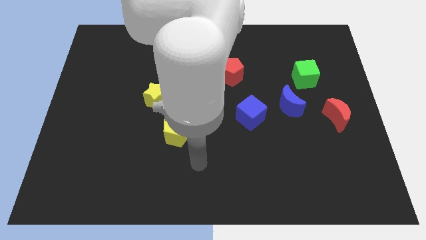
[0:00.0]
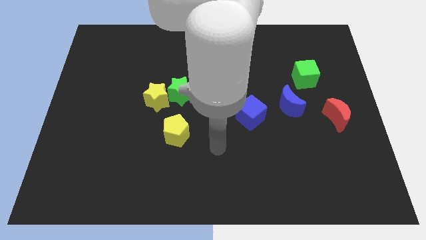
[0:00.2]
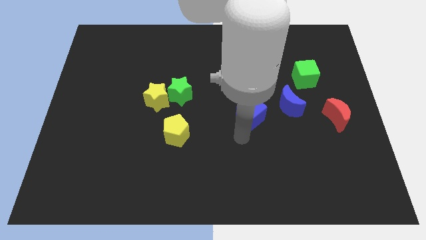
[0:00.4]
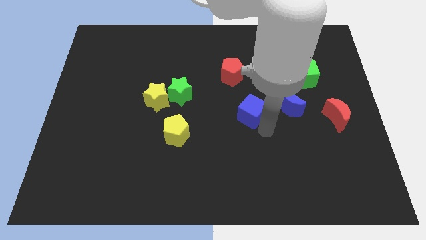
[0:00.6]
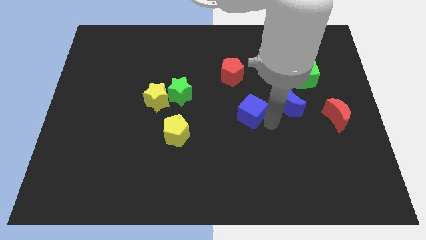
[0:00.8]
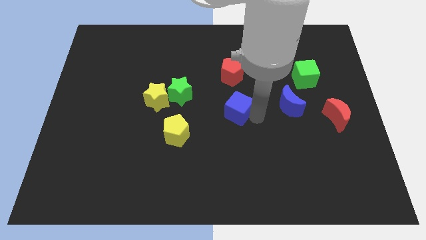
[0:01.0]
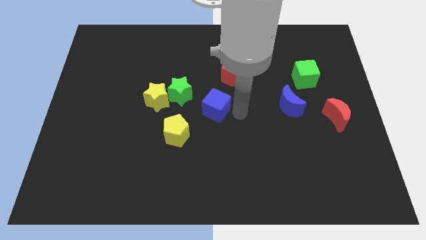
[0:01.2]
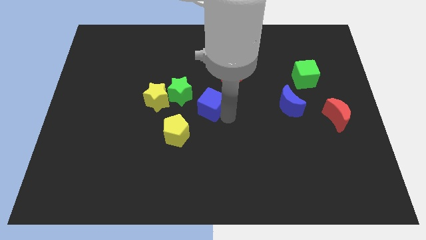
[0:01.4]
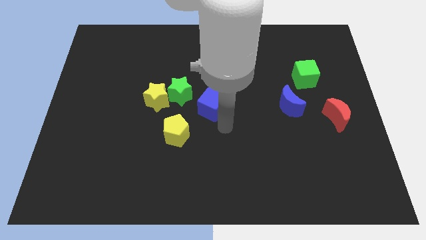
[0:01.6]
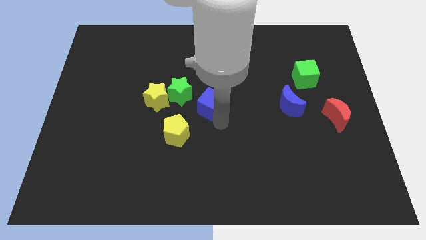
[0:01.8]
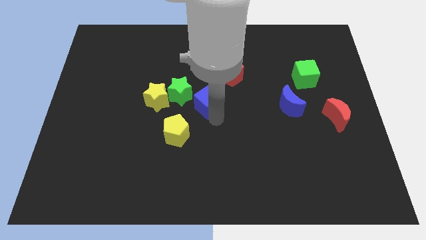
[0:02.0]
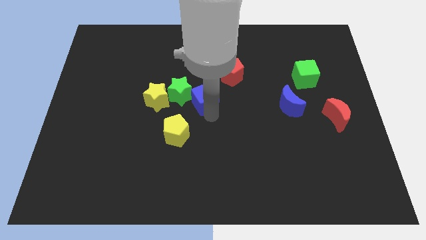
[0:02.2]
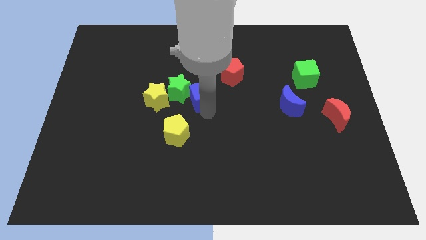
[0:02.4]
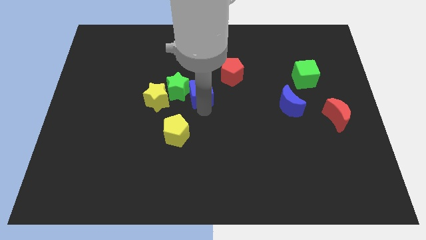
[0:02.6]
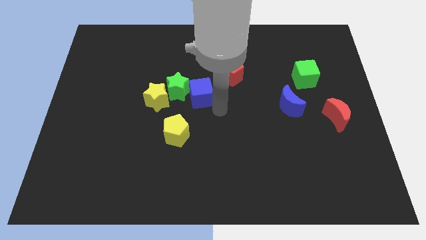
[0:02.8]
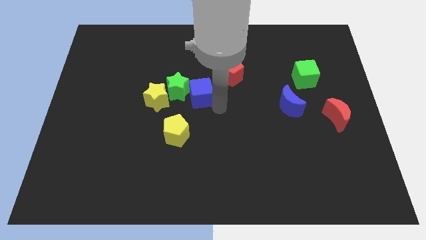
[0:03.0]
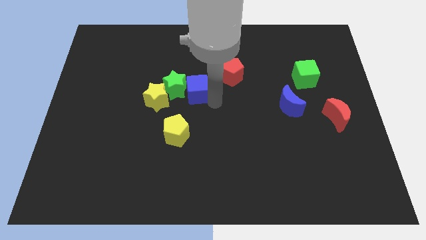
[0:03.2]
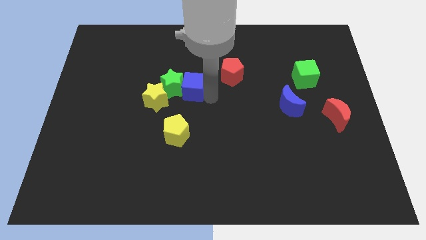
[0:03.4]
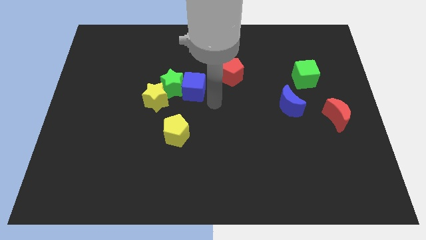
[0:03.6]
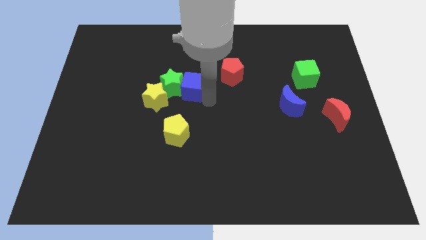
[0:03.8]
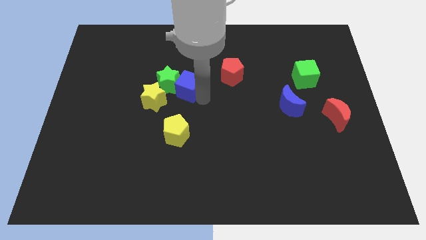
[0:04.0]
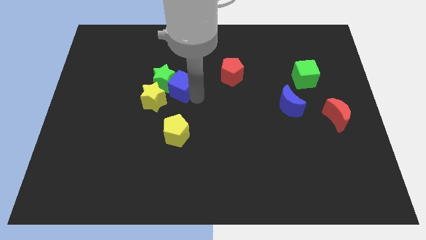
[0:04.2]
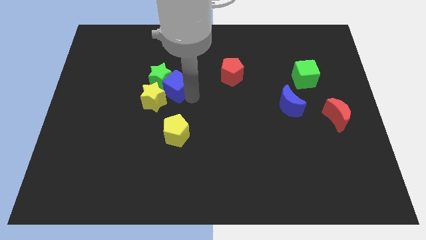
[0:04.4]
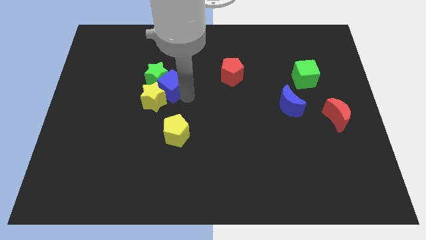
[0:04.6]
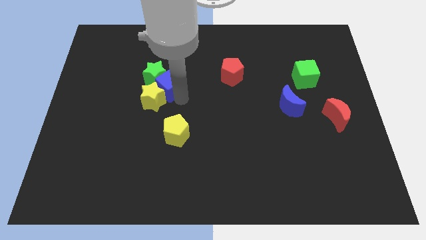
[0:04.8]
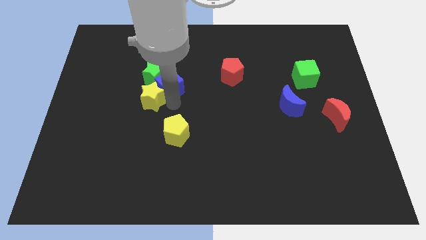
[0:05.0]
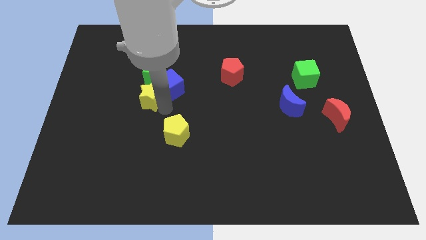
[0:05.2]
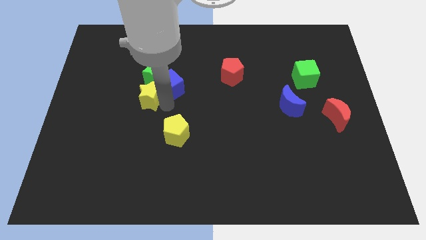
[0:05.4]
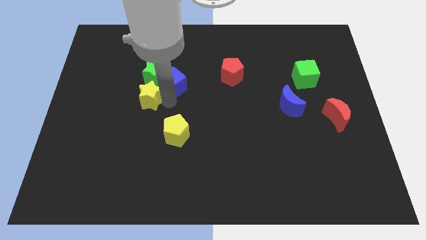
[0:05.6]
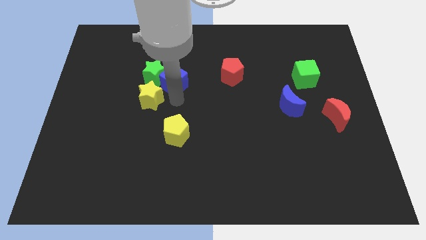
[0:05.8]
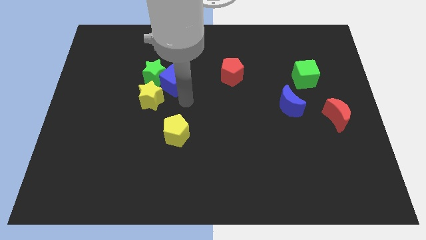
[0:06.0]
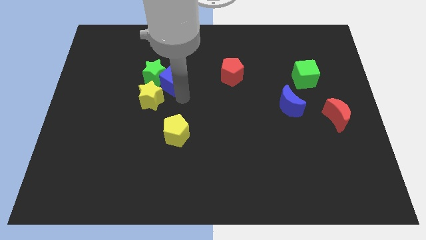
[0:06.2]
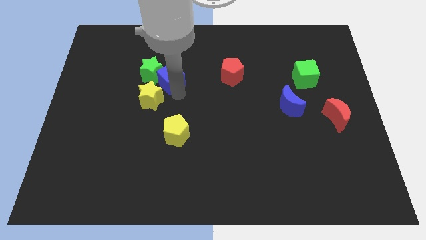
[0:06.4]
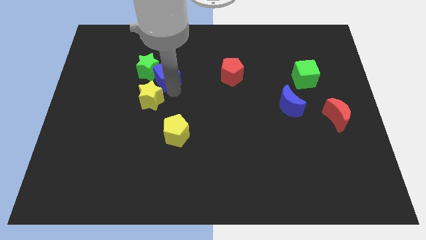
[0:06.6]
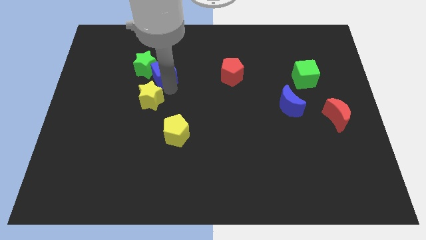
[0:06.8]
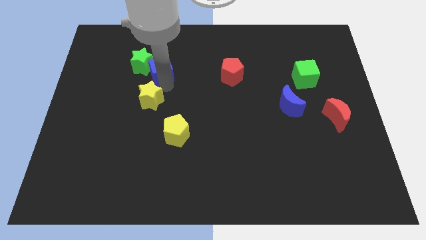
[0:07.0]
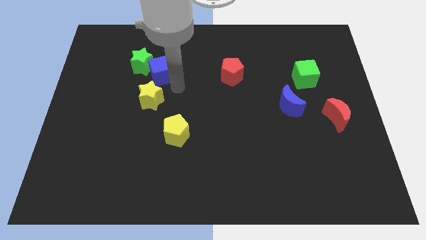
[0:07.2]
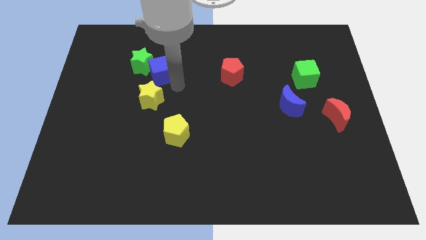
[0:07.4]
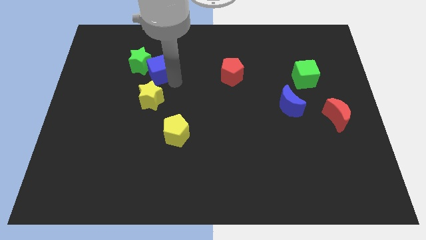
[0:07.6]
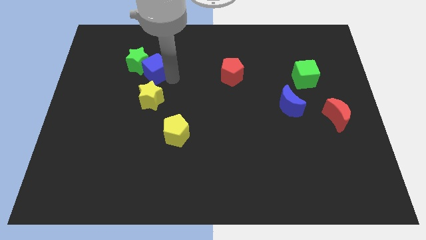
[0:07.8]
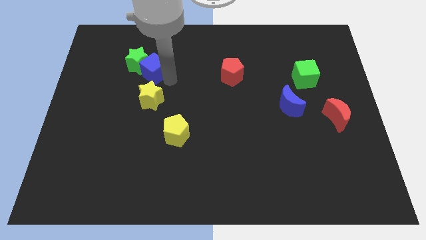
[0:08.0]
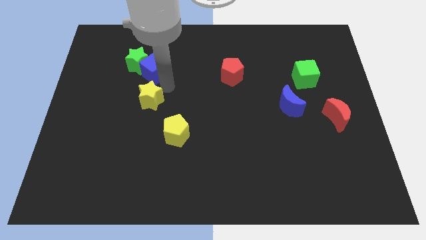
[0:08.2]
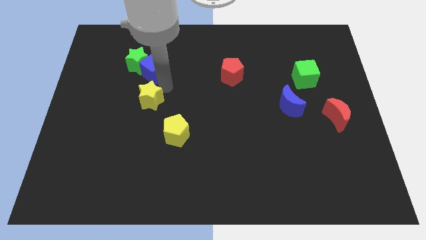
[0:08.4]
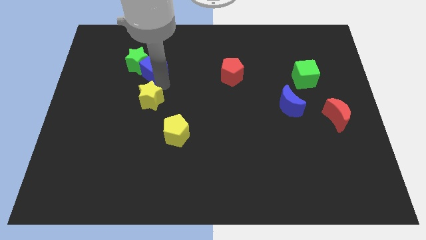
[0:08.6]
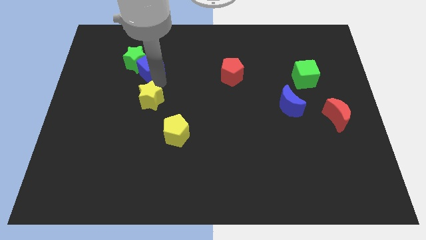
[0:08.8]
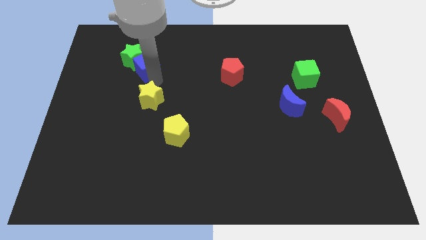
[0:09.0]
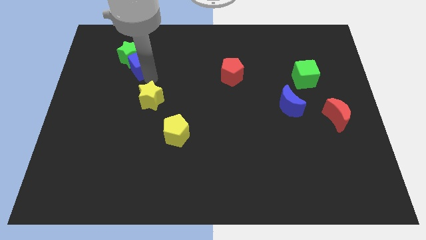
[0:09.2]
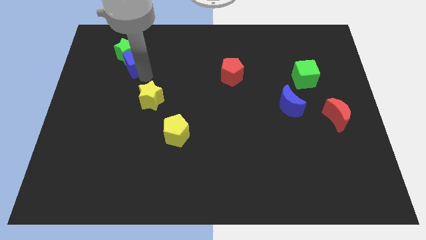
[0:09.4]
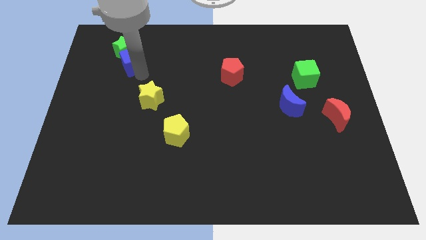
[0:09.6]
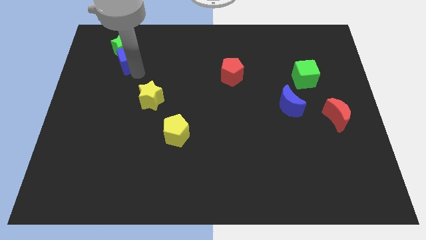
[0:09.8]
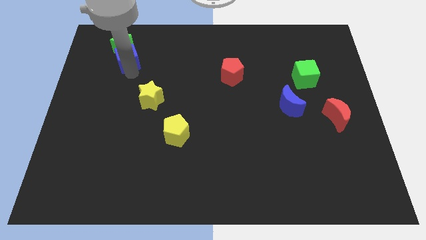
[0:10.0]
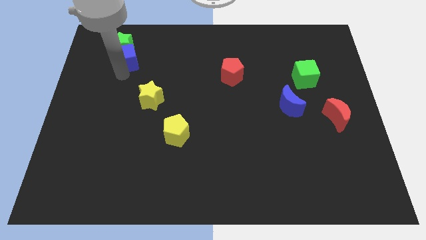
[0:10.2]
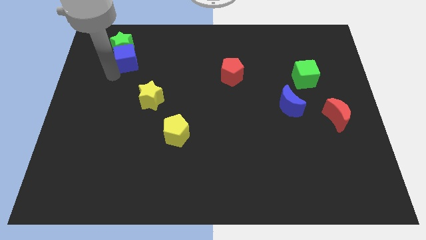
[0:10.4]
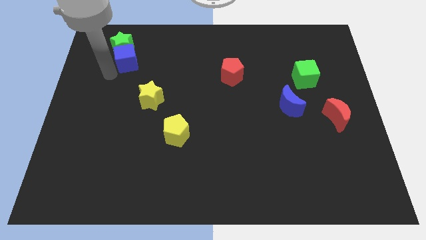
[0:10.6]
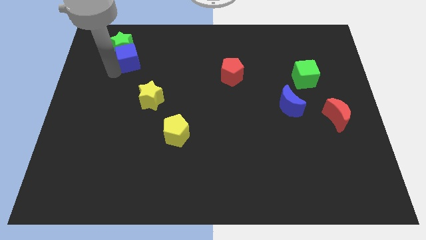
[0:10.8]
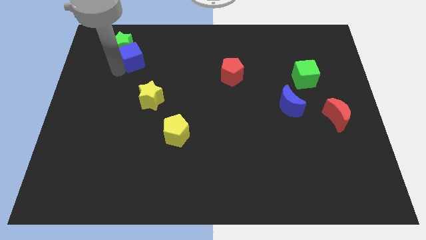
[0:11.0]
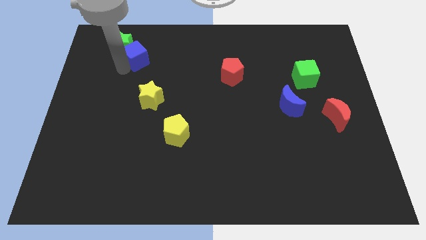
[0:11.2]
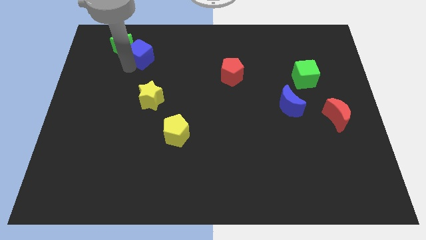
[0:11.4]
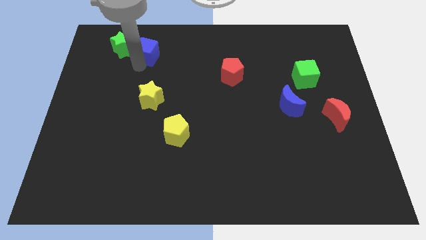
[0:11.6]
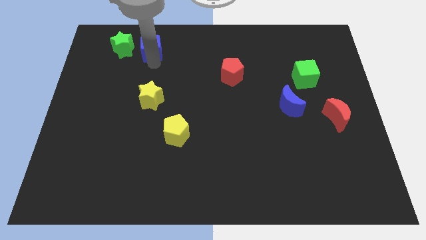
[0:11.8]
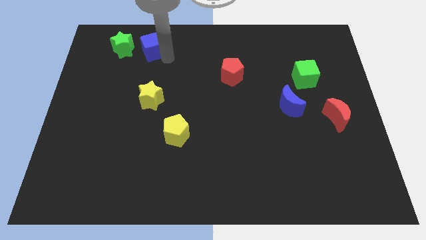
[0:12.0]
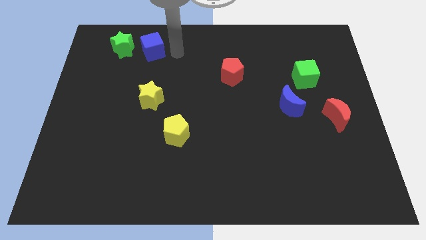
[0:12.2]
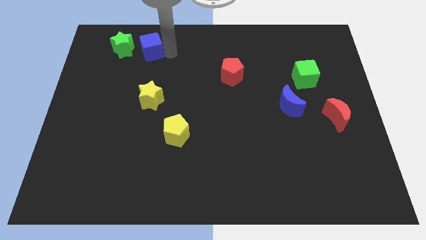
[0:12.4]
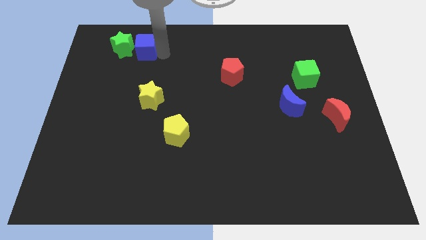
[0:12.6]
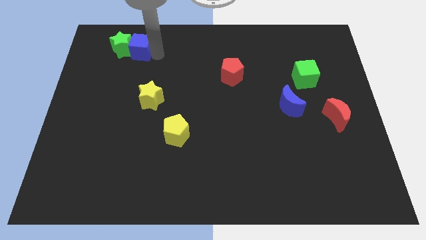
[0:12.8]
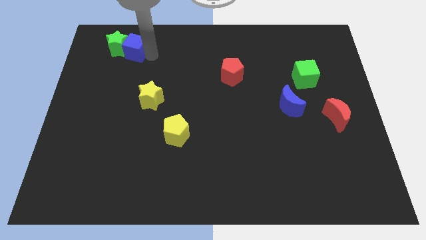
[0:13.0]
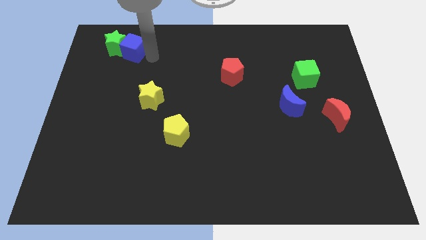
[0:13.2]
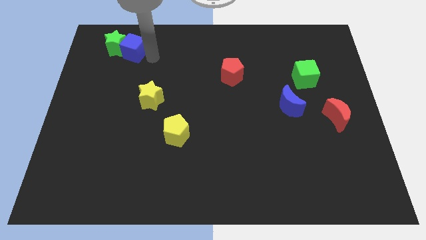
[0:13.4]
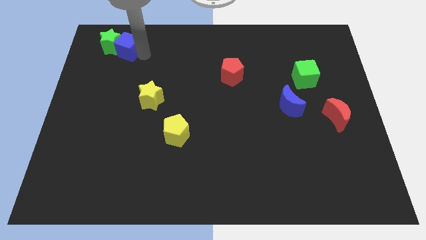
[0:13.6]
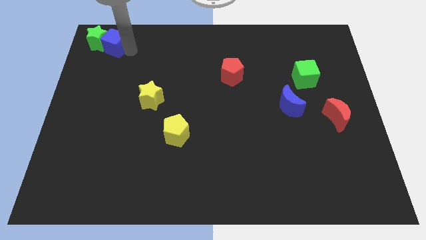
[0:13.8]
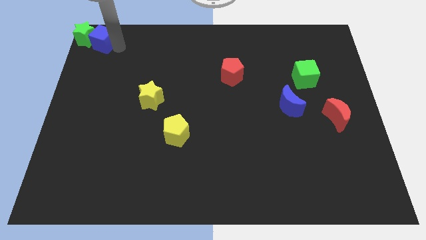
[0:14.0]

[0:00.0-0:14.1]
move the blue cube to the top left

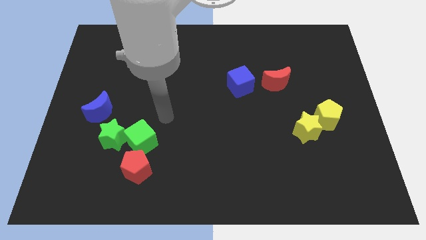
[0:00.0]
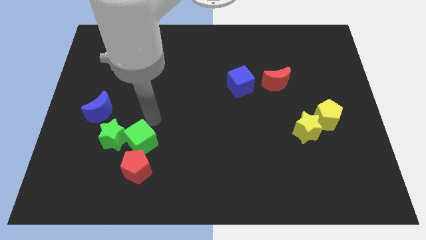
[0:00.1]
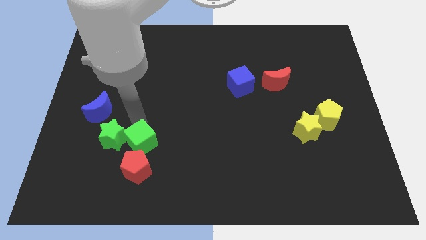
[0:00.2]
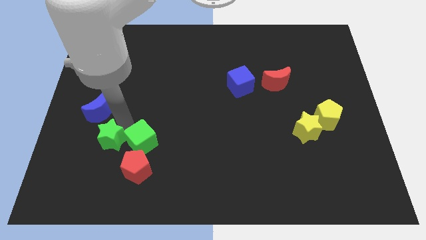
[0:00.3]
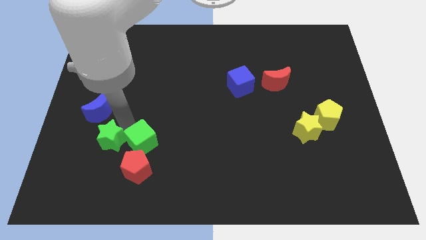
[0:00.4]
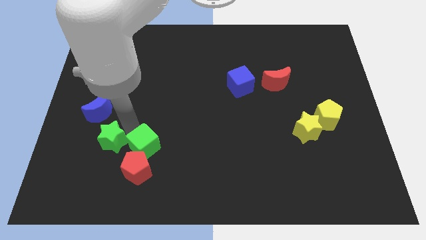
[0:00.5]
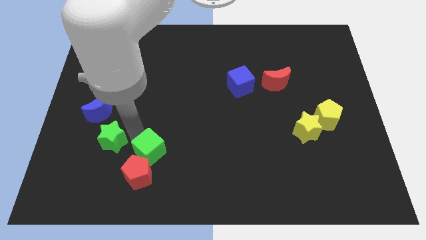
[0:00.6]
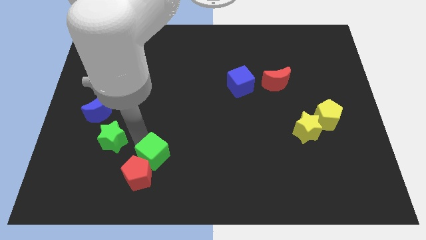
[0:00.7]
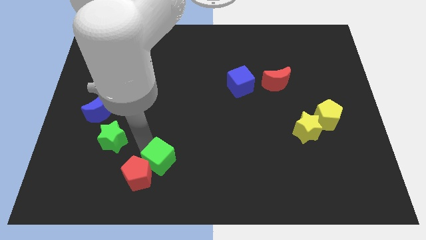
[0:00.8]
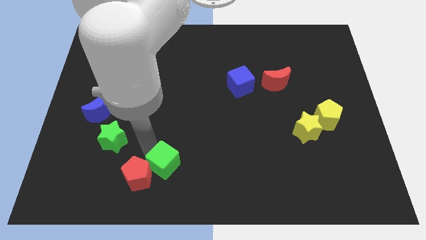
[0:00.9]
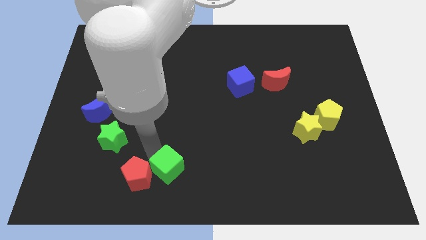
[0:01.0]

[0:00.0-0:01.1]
push the green cube to the bottom side
